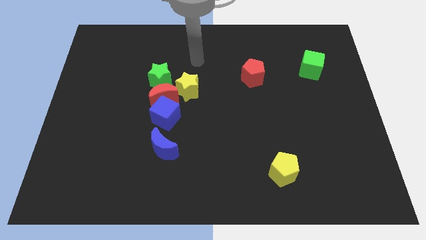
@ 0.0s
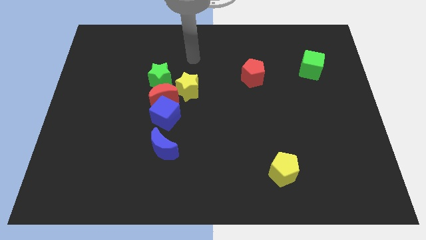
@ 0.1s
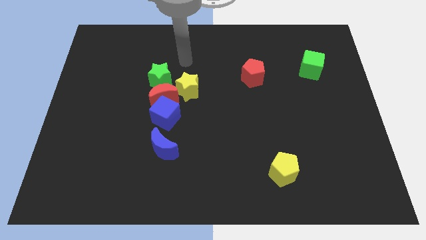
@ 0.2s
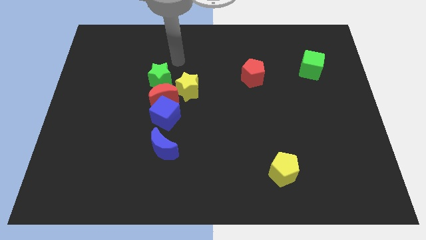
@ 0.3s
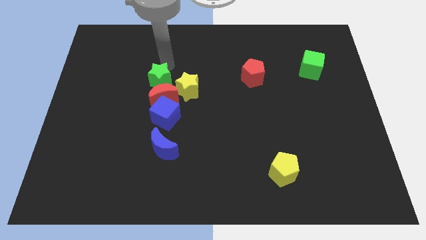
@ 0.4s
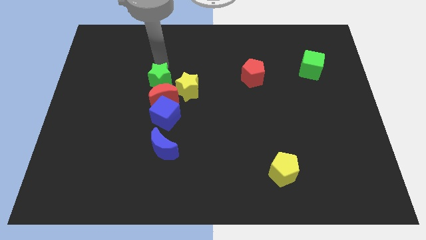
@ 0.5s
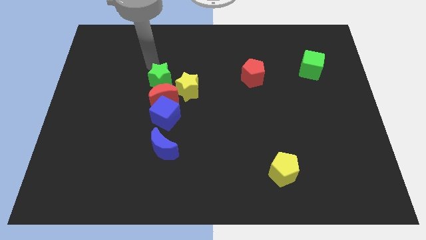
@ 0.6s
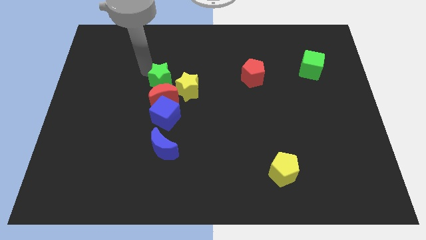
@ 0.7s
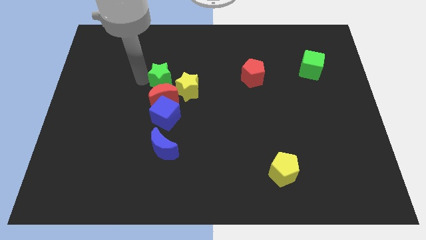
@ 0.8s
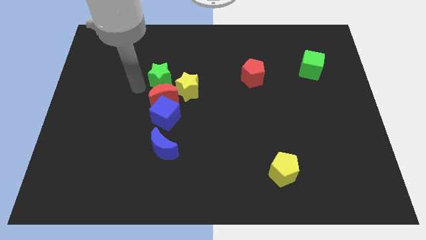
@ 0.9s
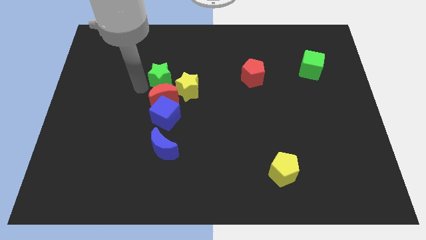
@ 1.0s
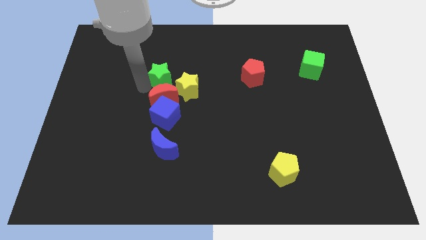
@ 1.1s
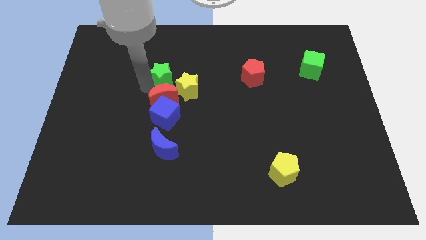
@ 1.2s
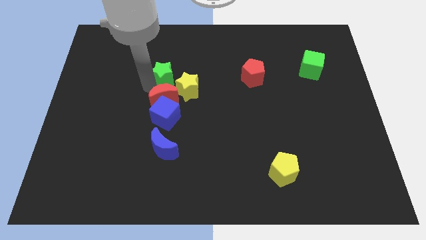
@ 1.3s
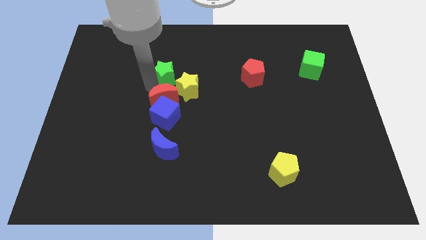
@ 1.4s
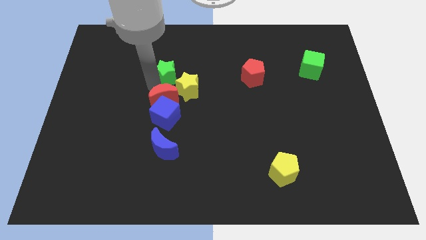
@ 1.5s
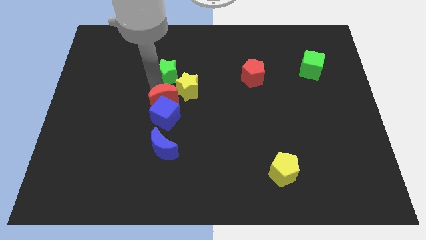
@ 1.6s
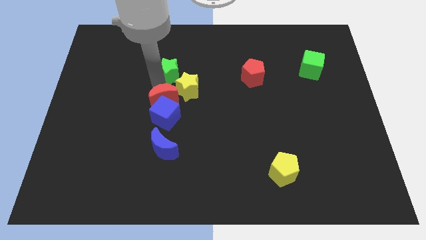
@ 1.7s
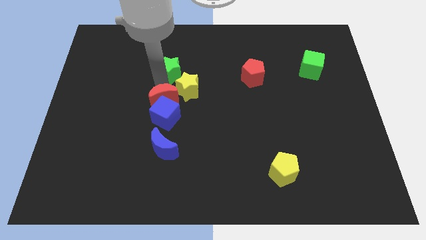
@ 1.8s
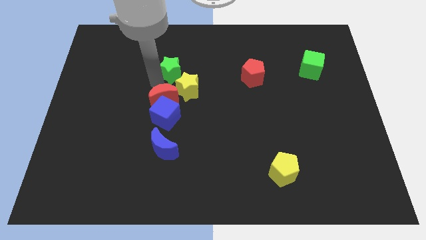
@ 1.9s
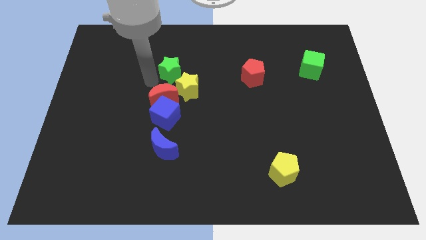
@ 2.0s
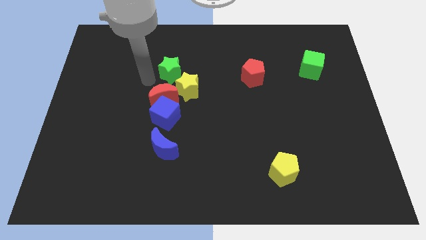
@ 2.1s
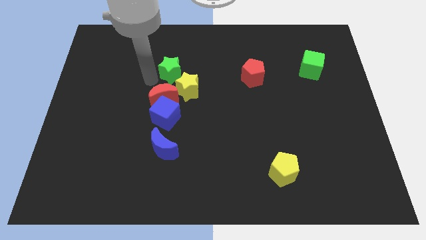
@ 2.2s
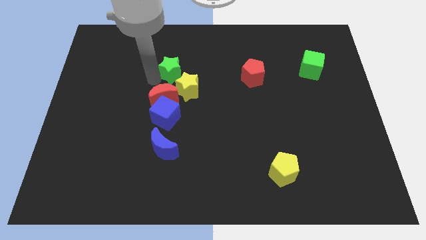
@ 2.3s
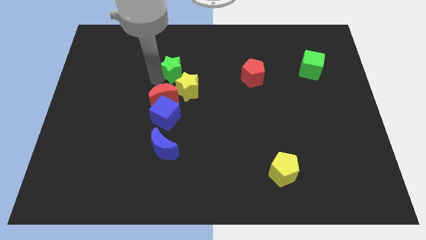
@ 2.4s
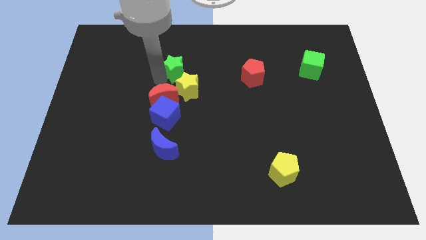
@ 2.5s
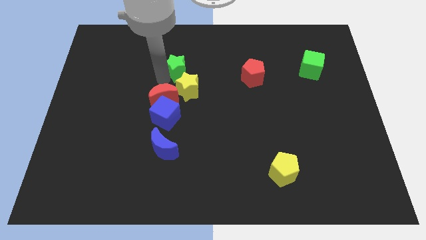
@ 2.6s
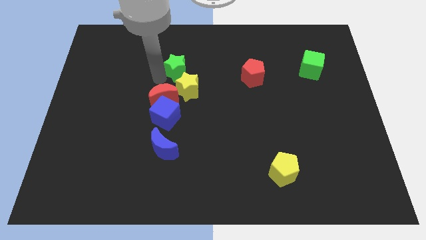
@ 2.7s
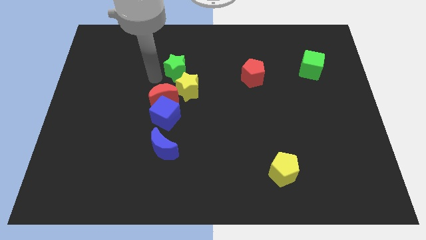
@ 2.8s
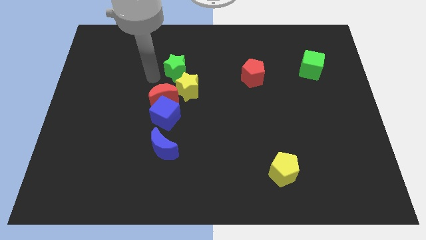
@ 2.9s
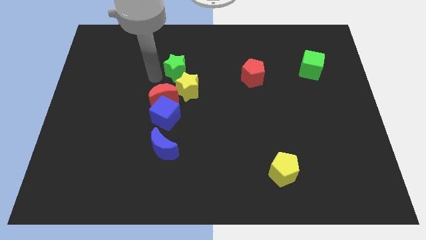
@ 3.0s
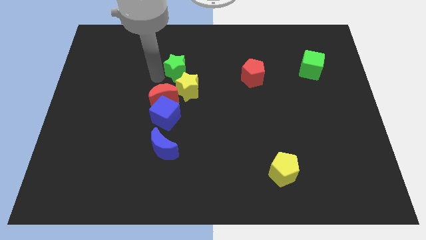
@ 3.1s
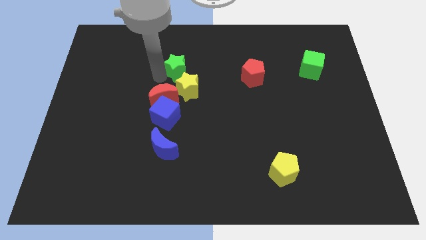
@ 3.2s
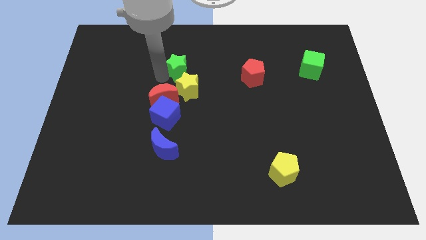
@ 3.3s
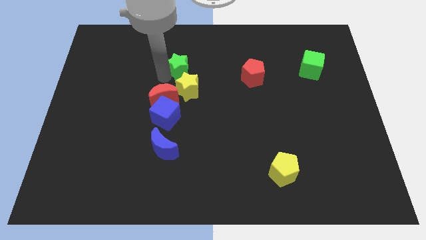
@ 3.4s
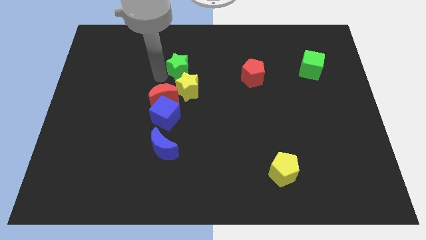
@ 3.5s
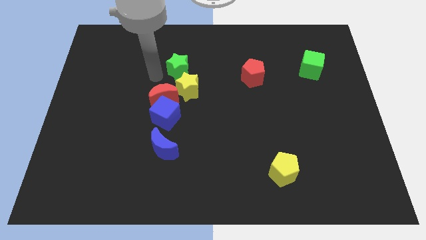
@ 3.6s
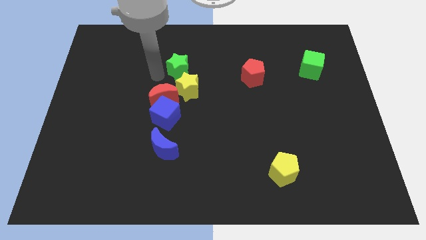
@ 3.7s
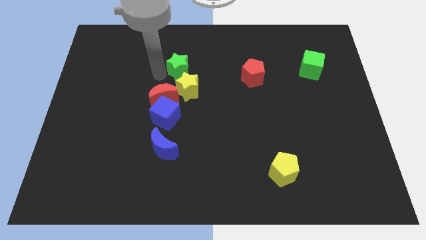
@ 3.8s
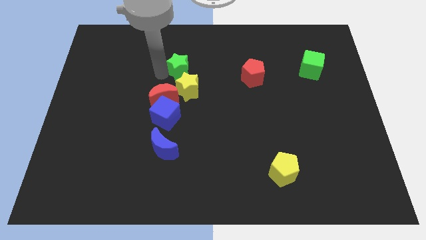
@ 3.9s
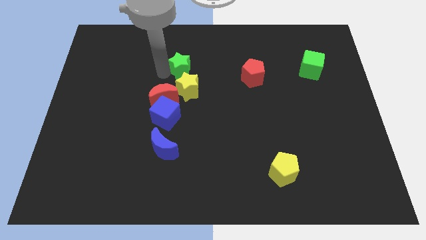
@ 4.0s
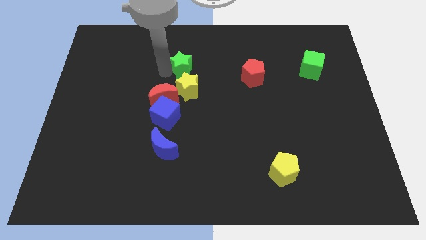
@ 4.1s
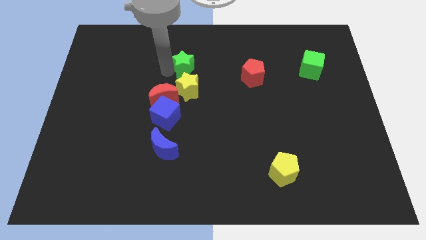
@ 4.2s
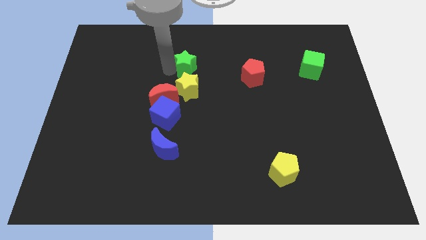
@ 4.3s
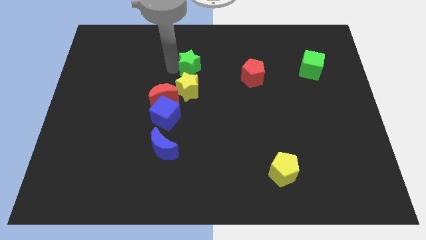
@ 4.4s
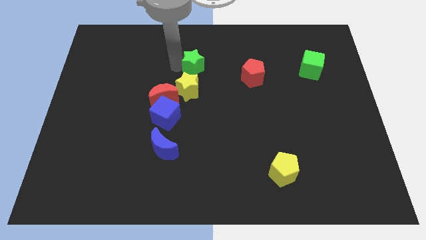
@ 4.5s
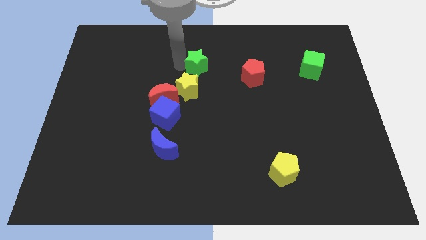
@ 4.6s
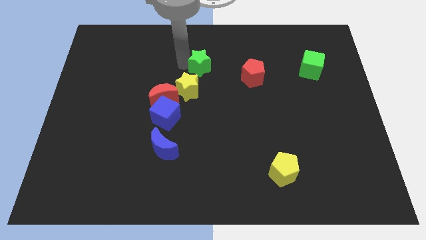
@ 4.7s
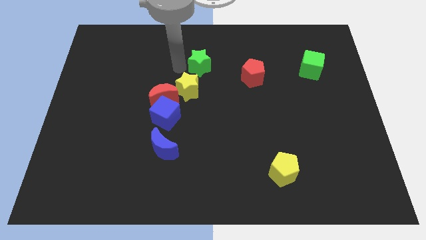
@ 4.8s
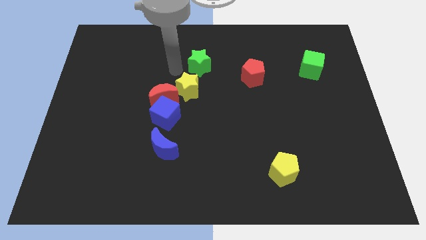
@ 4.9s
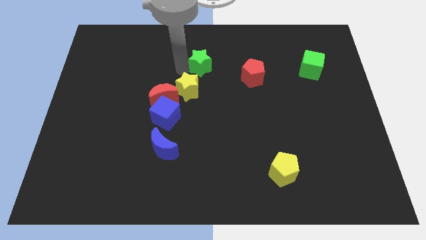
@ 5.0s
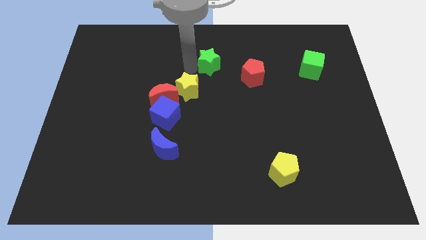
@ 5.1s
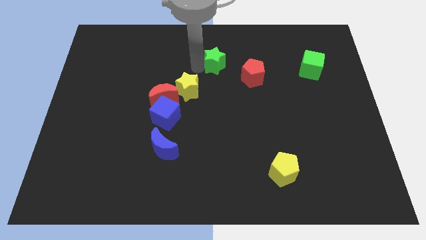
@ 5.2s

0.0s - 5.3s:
push the green star diagonally up and to the left of the red pentagon

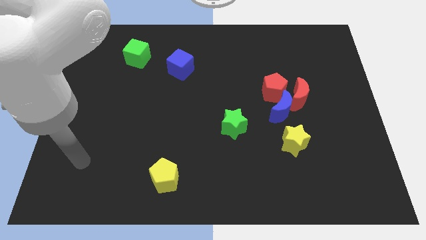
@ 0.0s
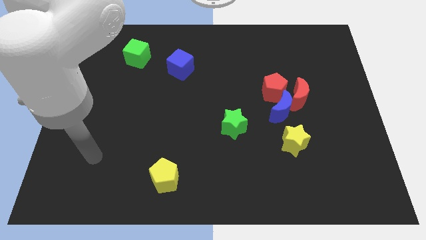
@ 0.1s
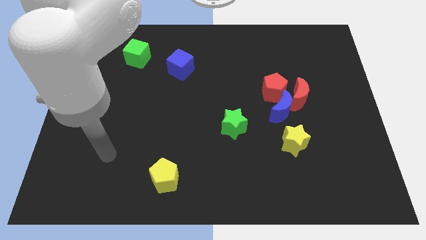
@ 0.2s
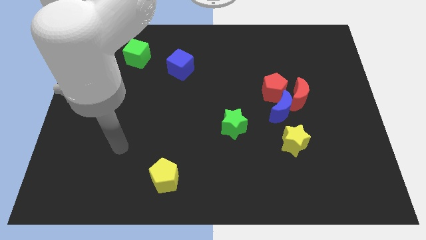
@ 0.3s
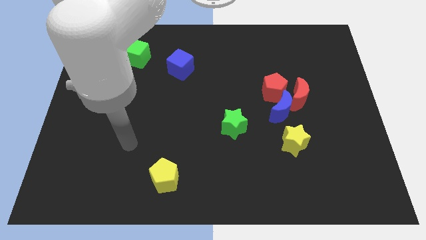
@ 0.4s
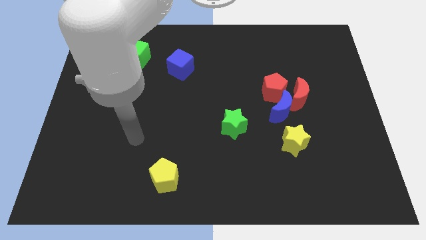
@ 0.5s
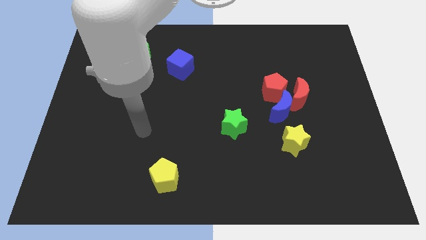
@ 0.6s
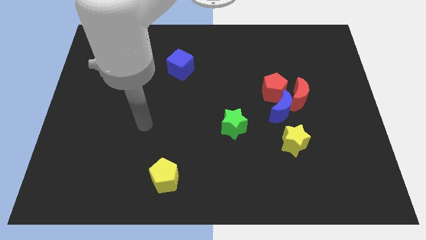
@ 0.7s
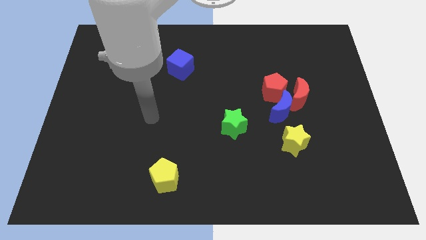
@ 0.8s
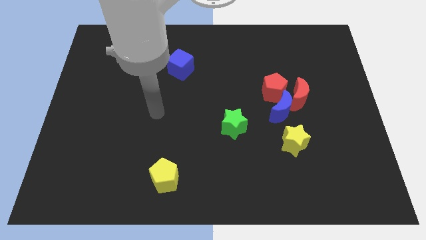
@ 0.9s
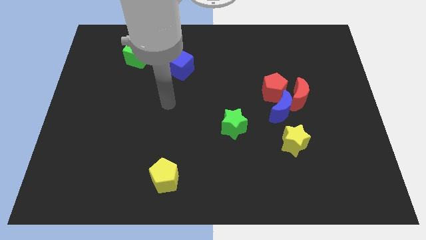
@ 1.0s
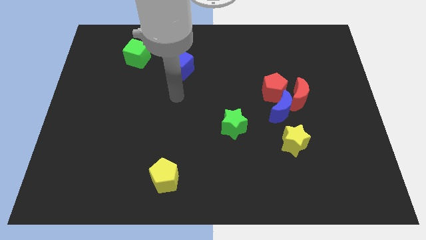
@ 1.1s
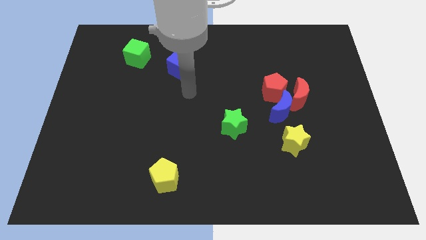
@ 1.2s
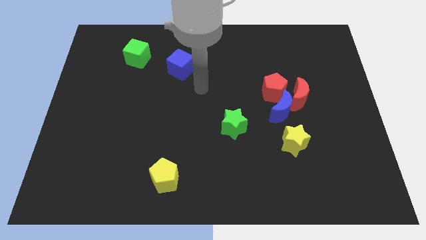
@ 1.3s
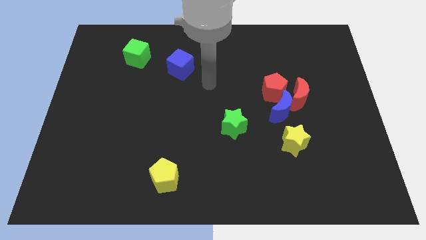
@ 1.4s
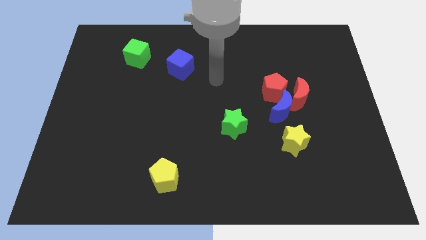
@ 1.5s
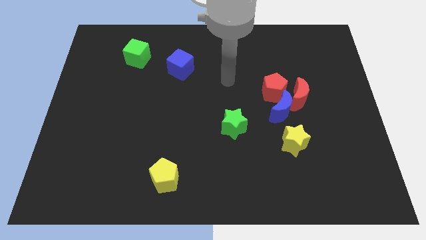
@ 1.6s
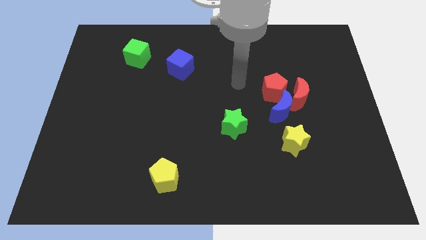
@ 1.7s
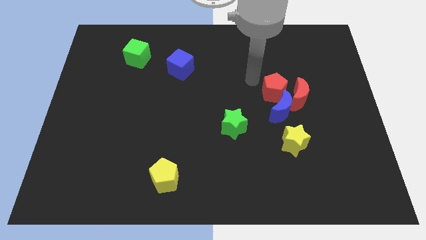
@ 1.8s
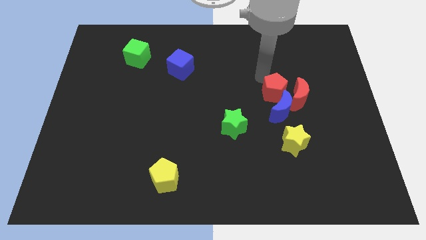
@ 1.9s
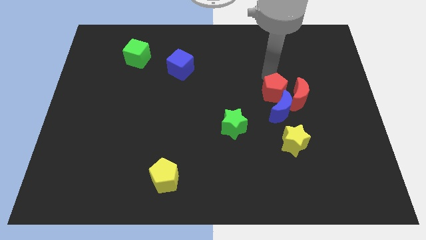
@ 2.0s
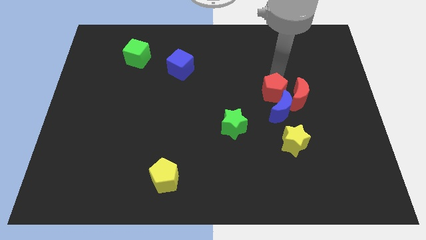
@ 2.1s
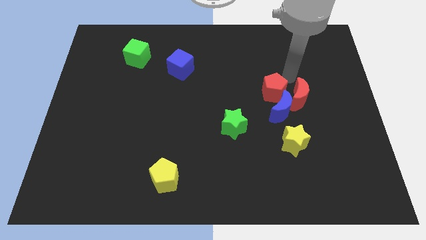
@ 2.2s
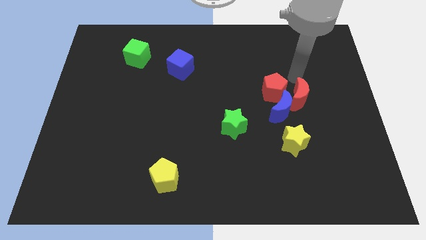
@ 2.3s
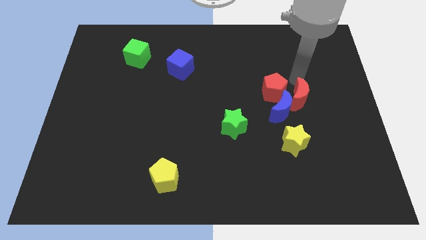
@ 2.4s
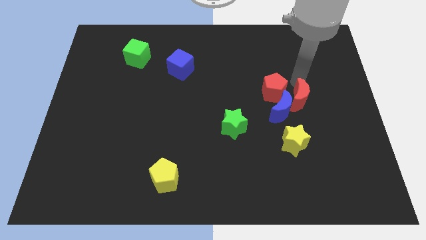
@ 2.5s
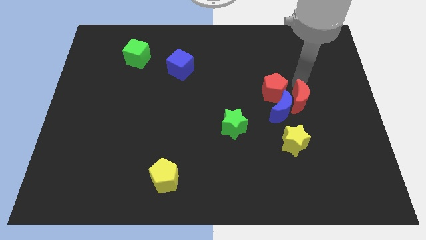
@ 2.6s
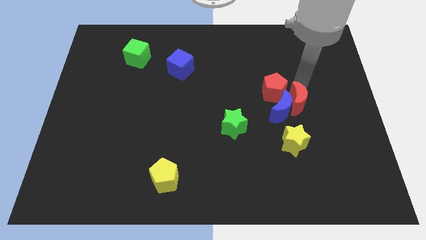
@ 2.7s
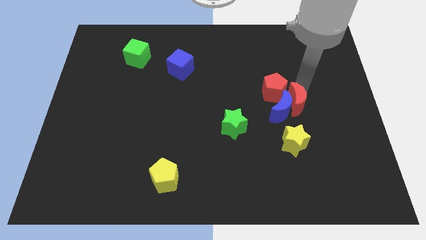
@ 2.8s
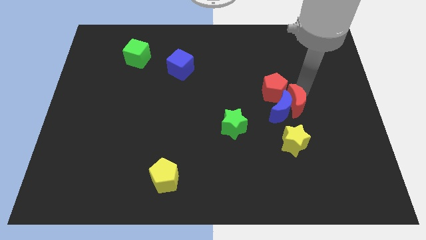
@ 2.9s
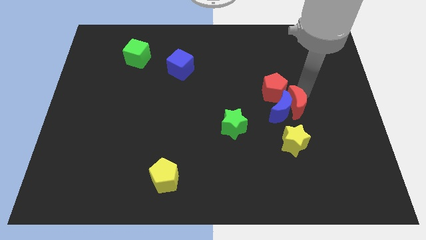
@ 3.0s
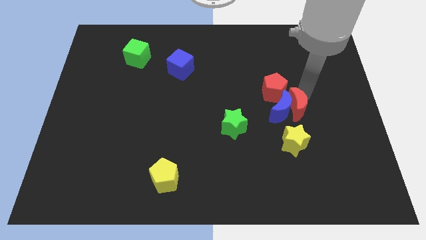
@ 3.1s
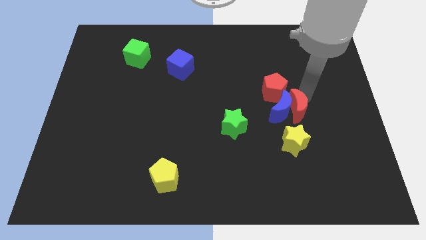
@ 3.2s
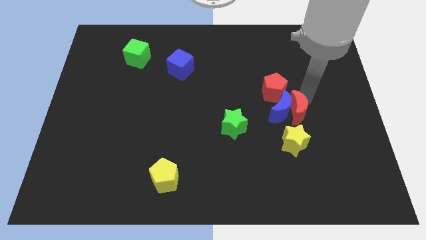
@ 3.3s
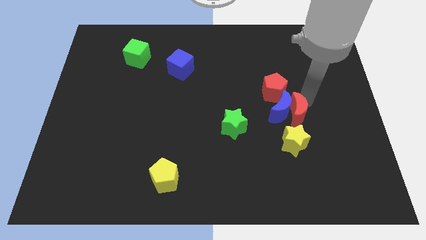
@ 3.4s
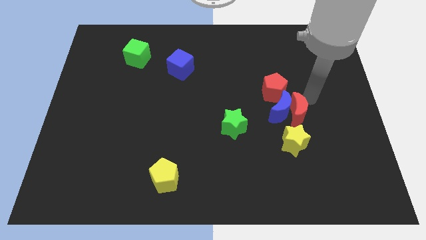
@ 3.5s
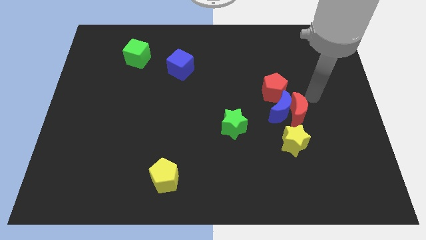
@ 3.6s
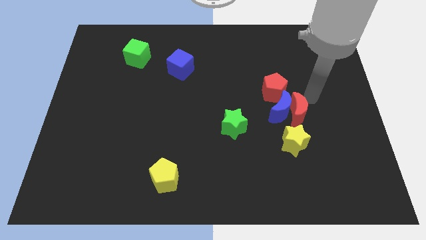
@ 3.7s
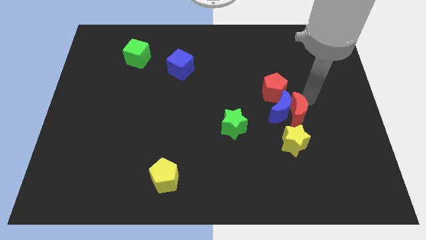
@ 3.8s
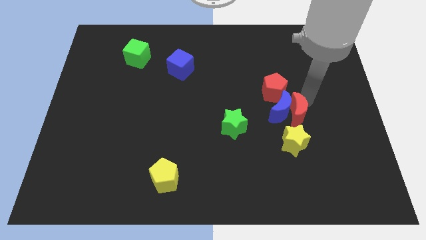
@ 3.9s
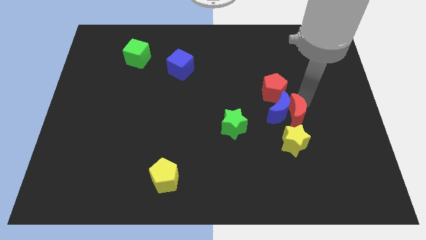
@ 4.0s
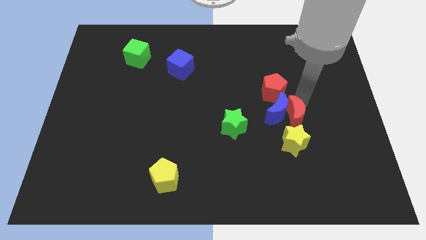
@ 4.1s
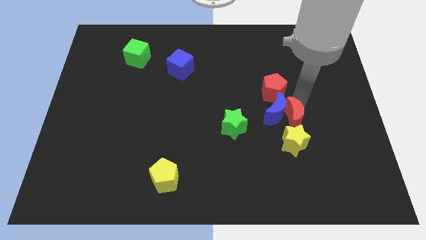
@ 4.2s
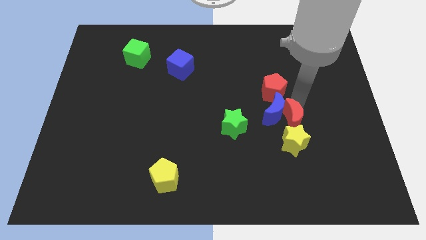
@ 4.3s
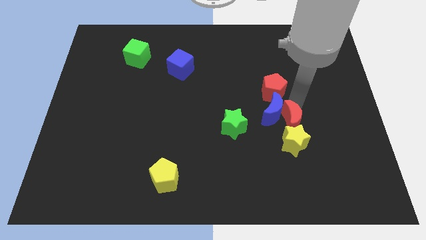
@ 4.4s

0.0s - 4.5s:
slide the red moon diagonally up and to the left of the yellow star
